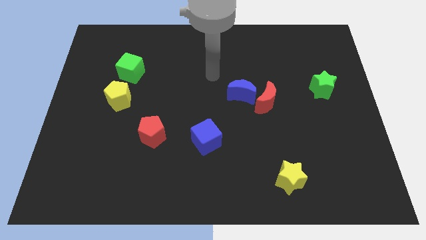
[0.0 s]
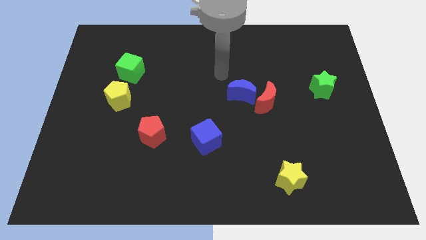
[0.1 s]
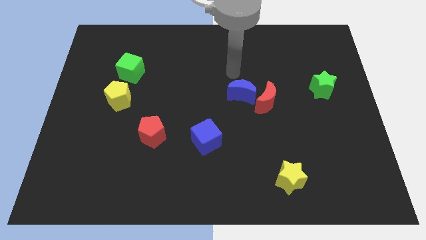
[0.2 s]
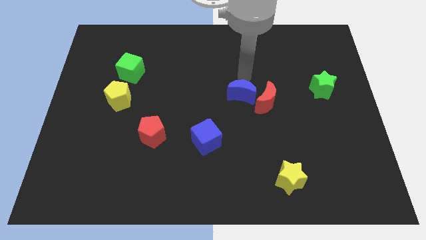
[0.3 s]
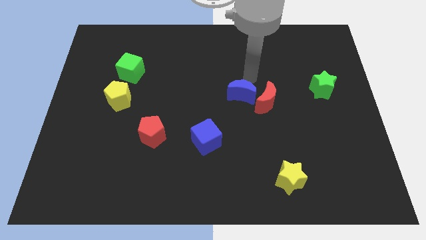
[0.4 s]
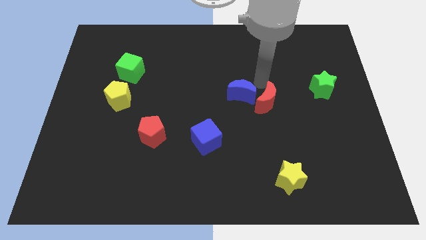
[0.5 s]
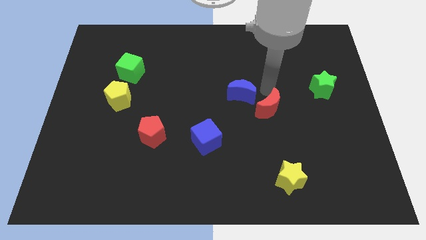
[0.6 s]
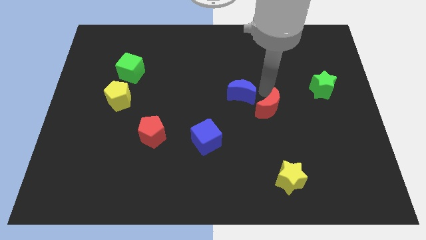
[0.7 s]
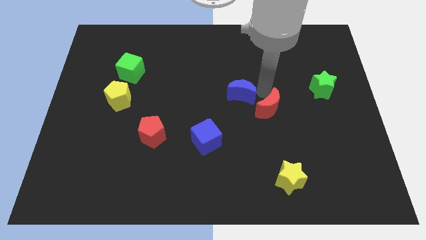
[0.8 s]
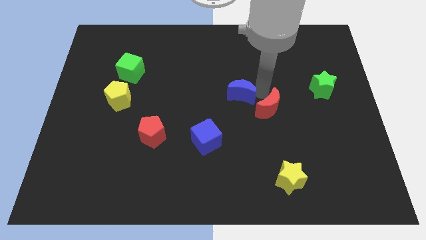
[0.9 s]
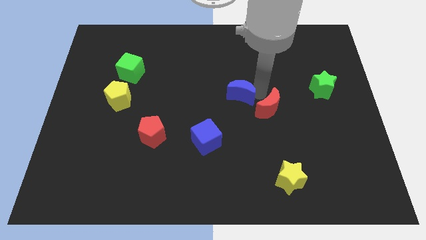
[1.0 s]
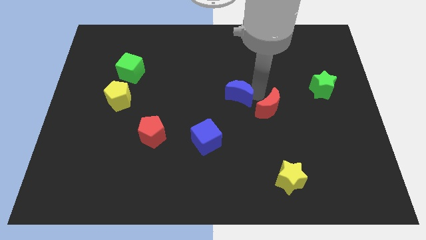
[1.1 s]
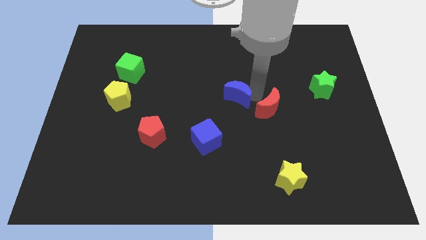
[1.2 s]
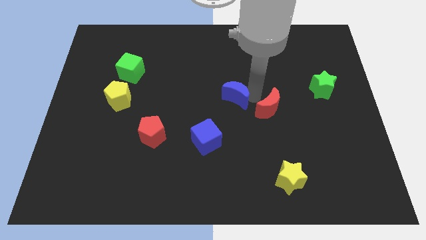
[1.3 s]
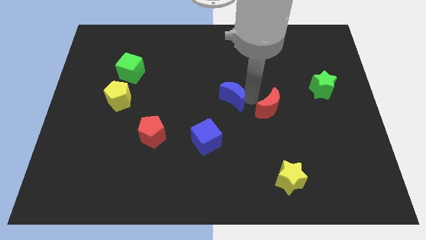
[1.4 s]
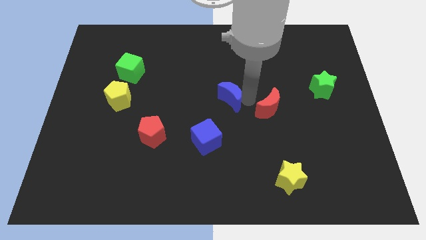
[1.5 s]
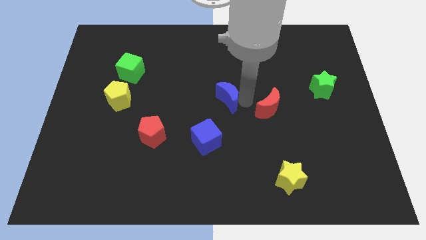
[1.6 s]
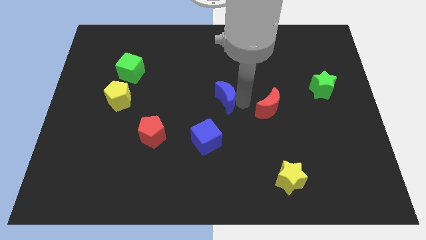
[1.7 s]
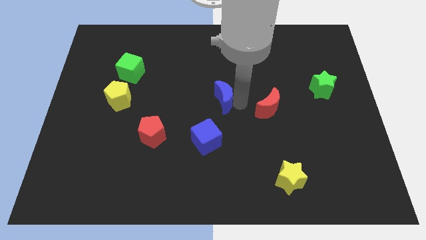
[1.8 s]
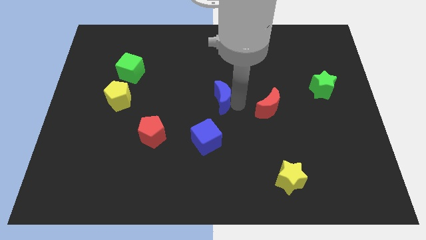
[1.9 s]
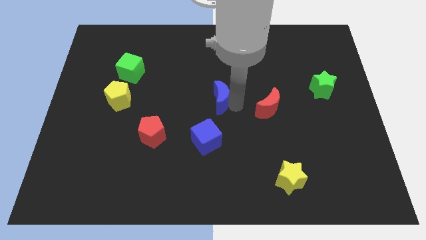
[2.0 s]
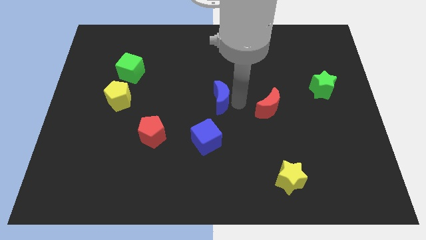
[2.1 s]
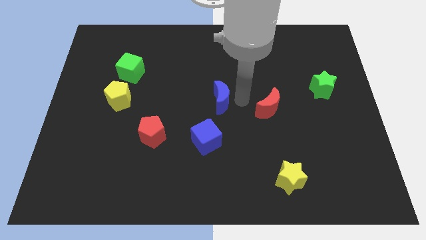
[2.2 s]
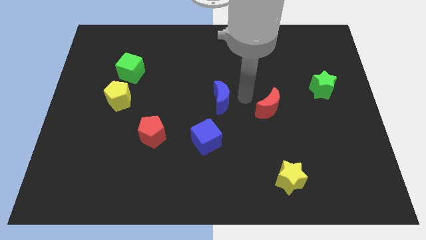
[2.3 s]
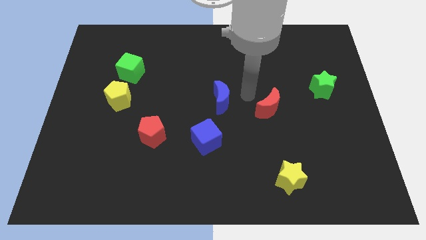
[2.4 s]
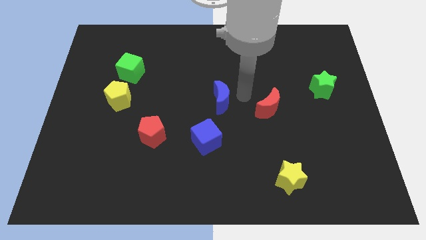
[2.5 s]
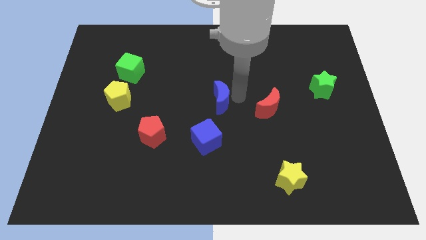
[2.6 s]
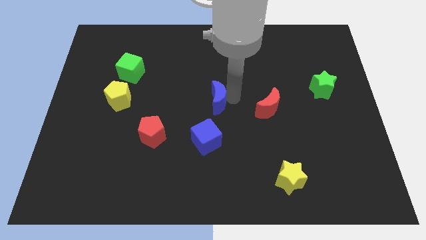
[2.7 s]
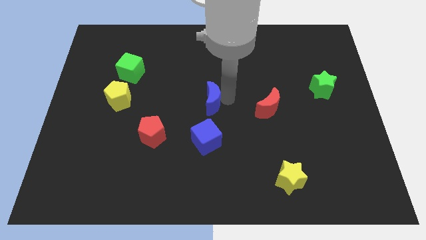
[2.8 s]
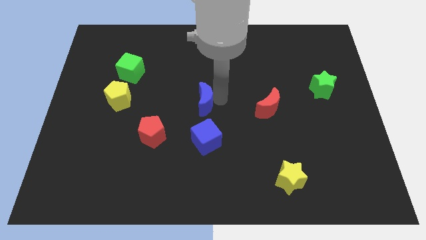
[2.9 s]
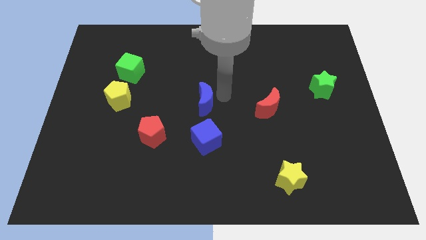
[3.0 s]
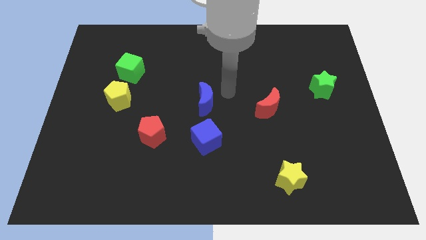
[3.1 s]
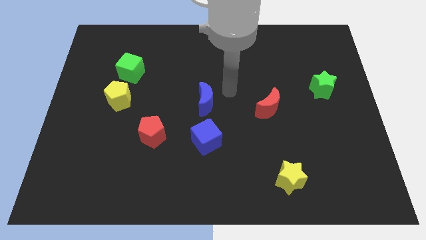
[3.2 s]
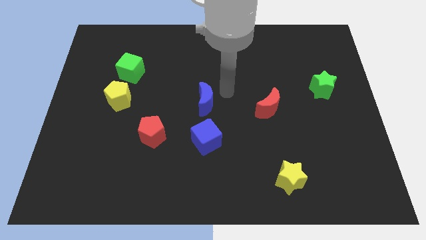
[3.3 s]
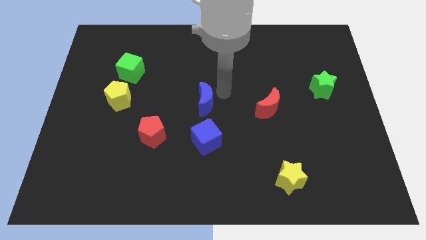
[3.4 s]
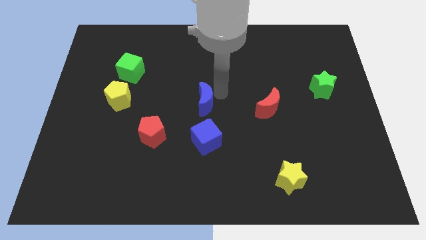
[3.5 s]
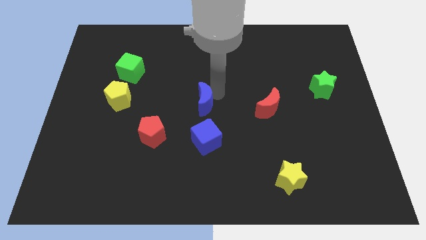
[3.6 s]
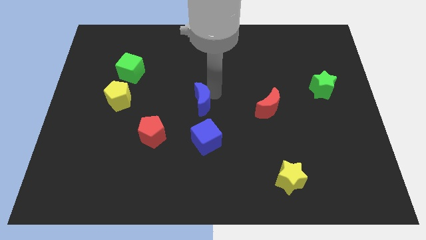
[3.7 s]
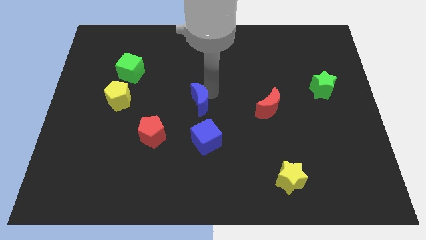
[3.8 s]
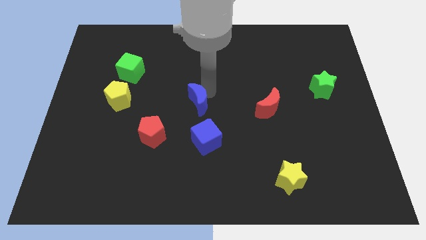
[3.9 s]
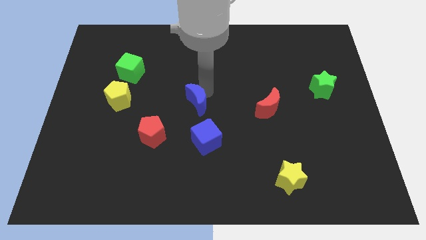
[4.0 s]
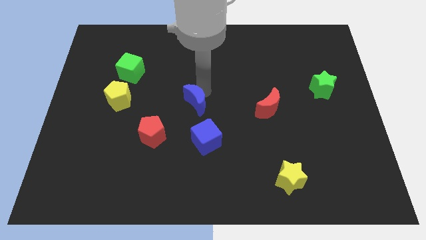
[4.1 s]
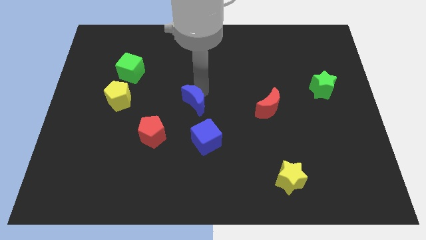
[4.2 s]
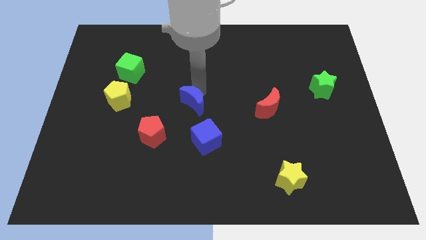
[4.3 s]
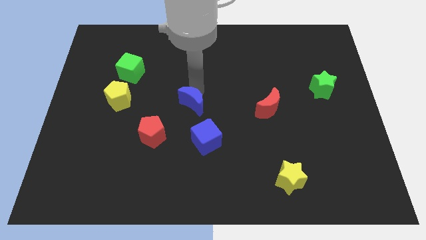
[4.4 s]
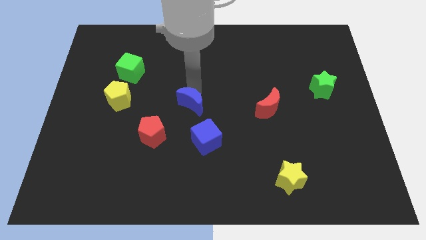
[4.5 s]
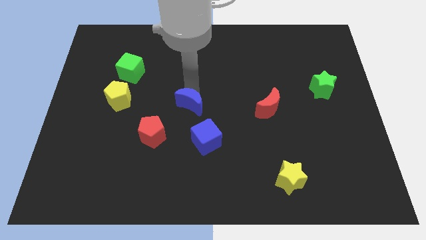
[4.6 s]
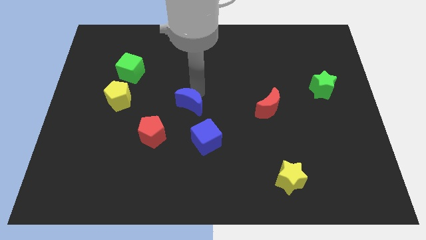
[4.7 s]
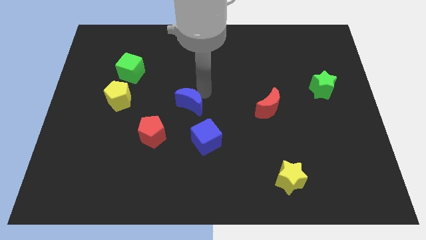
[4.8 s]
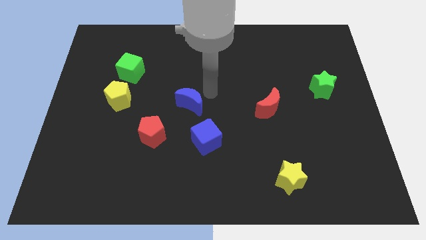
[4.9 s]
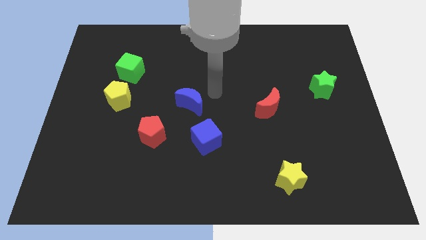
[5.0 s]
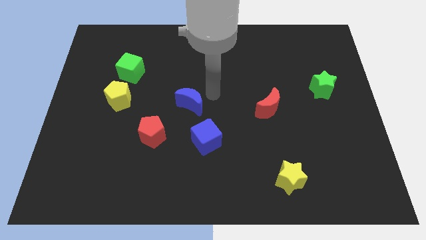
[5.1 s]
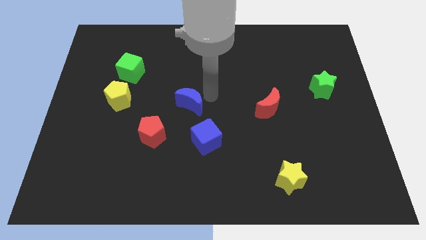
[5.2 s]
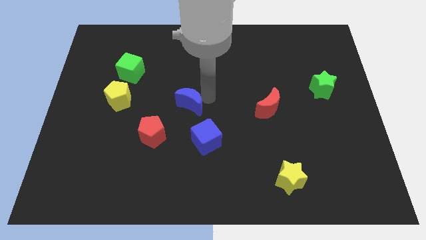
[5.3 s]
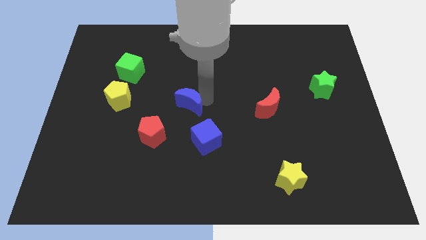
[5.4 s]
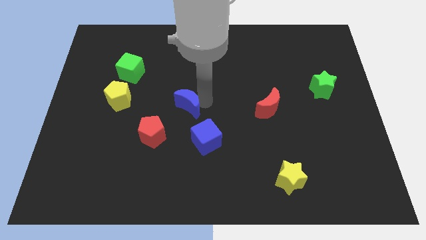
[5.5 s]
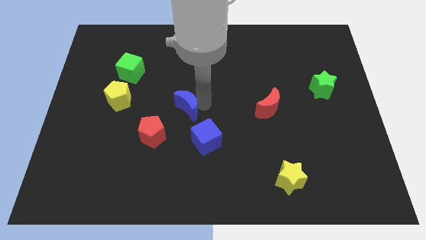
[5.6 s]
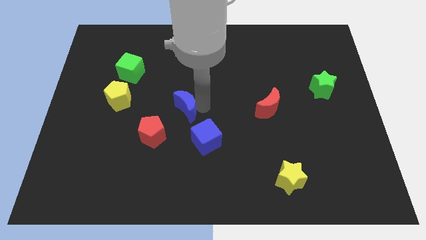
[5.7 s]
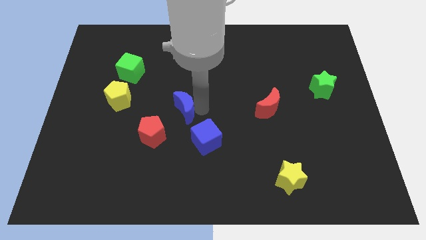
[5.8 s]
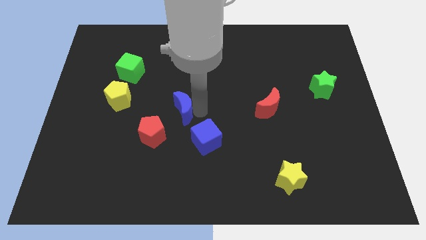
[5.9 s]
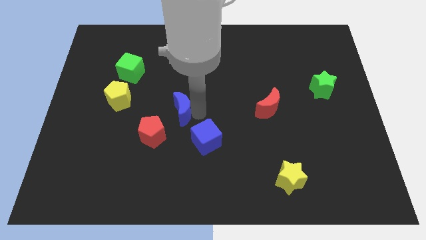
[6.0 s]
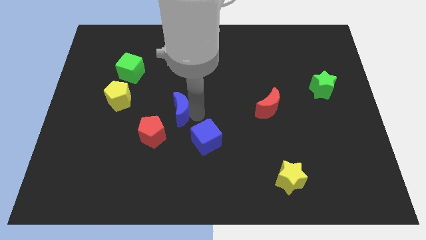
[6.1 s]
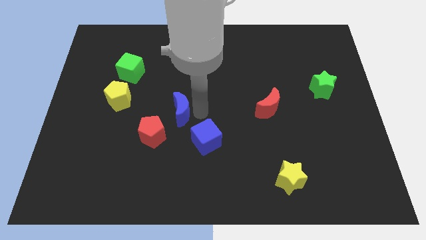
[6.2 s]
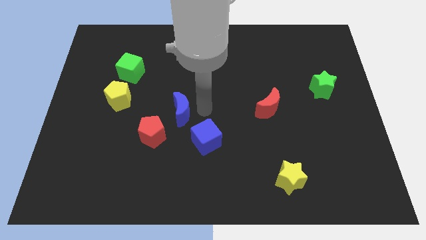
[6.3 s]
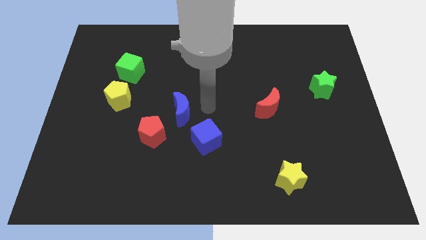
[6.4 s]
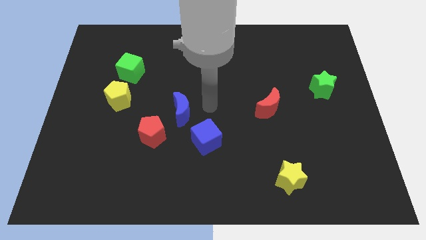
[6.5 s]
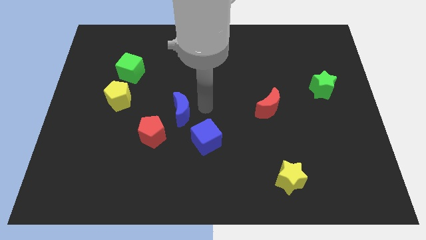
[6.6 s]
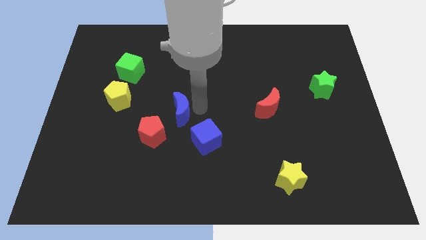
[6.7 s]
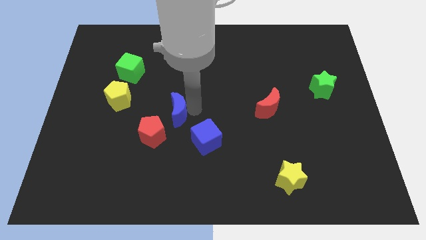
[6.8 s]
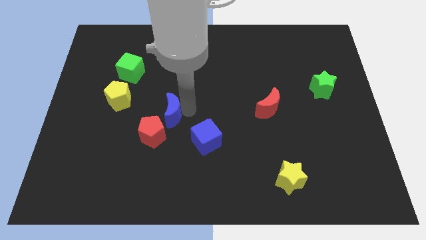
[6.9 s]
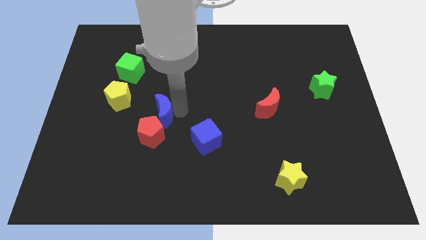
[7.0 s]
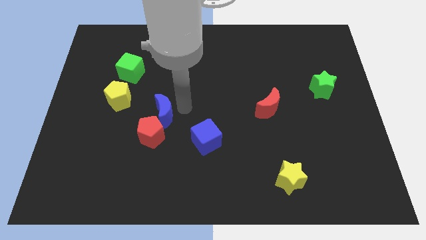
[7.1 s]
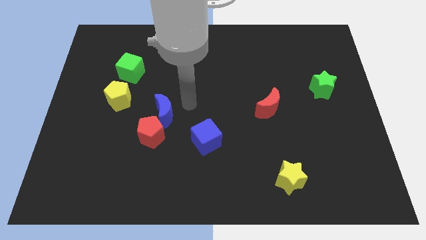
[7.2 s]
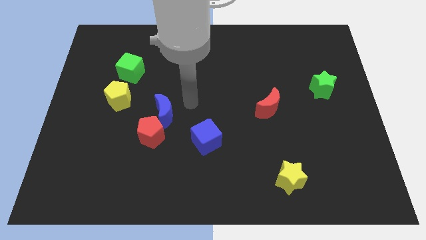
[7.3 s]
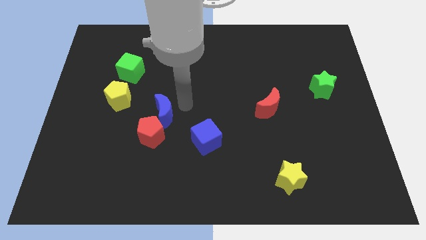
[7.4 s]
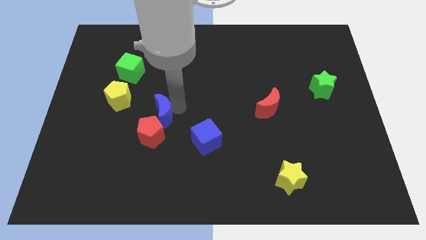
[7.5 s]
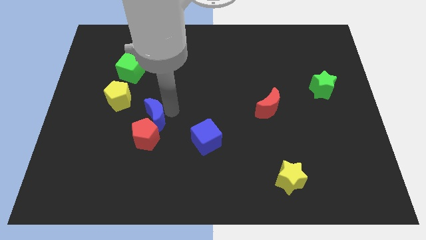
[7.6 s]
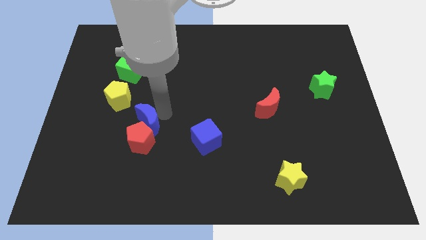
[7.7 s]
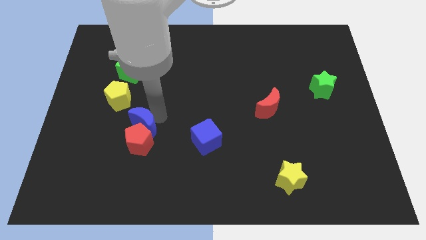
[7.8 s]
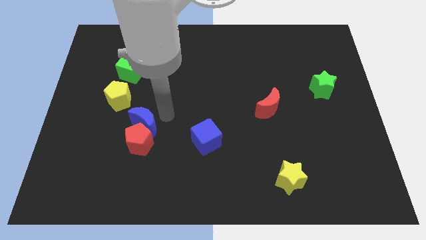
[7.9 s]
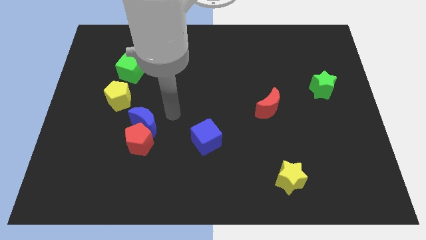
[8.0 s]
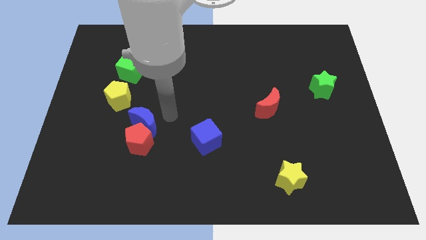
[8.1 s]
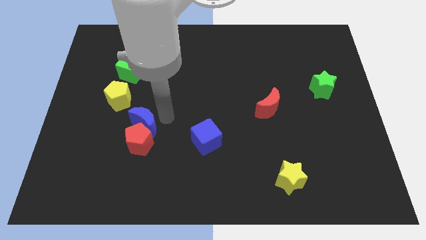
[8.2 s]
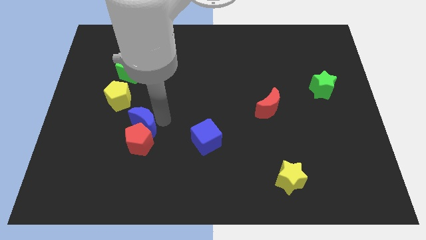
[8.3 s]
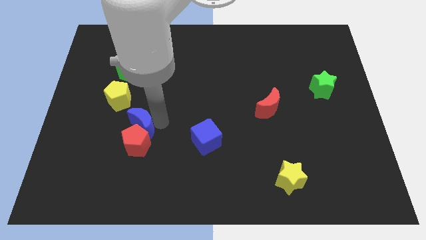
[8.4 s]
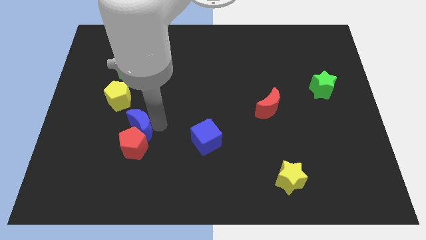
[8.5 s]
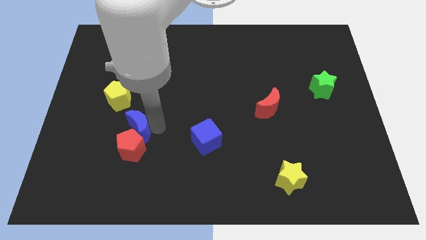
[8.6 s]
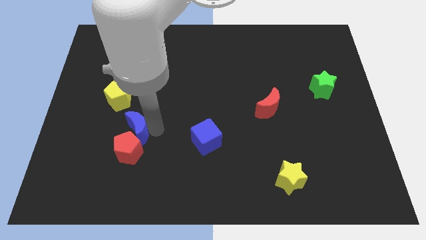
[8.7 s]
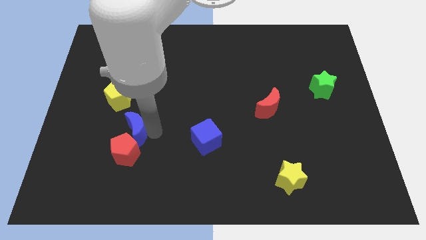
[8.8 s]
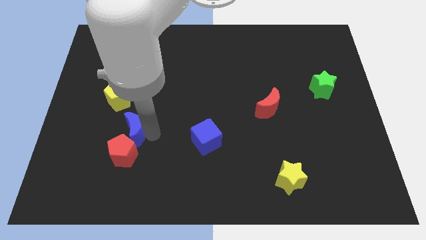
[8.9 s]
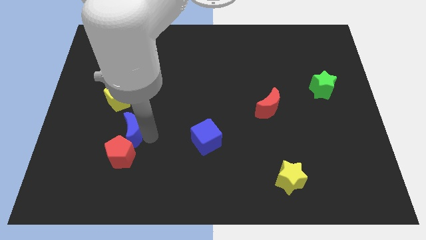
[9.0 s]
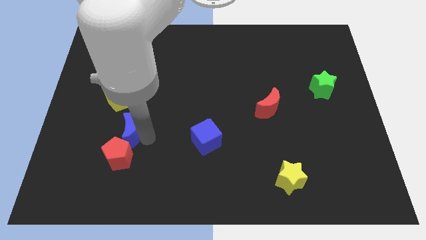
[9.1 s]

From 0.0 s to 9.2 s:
move the blue moon below the yellow pentagon
